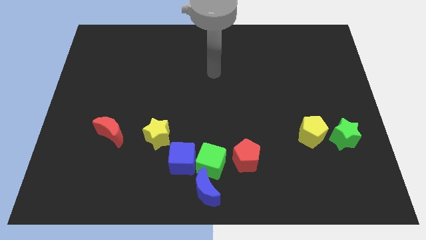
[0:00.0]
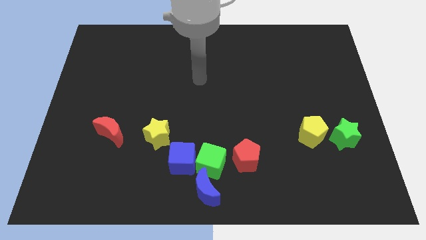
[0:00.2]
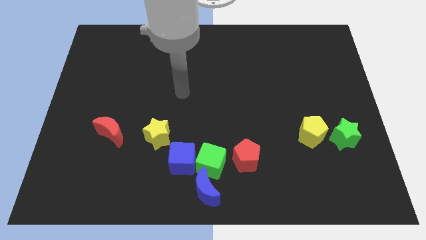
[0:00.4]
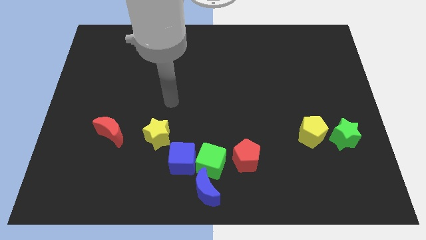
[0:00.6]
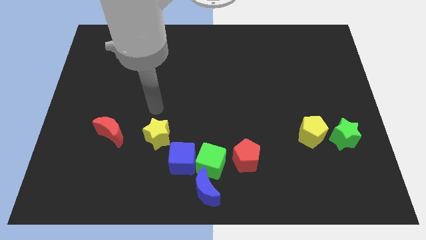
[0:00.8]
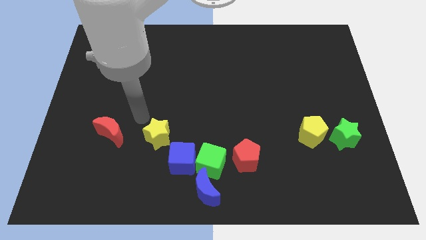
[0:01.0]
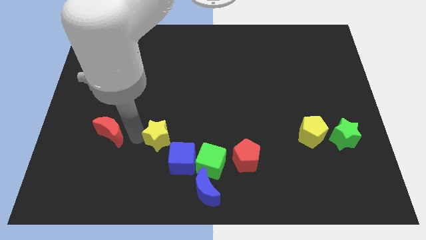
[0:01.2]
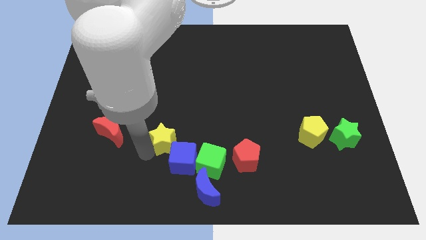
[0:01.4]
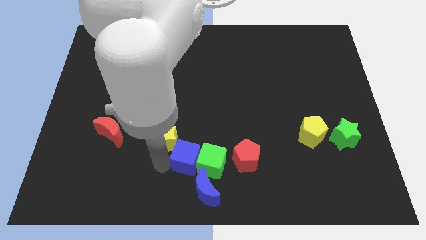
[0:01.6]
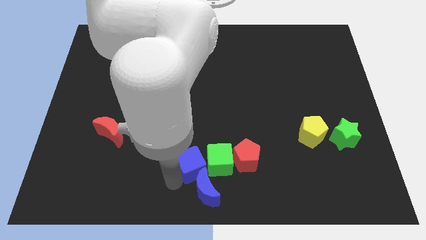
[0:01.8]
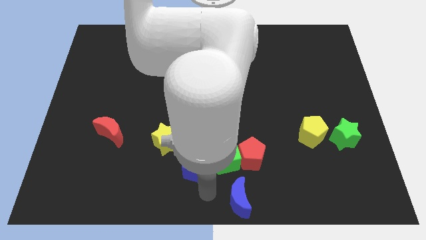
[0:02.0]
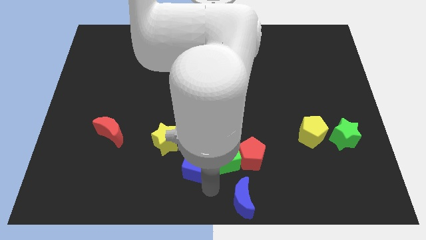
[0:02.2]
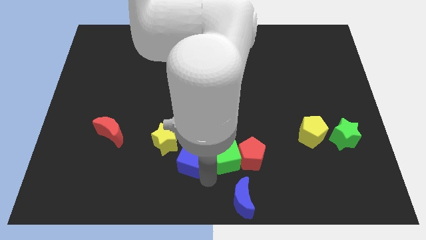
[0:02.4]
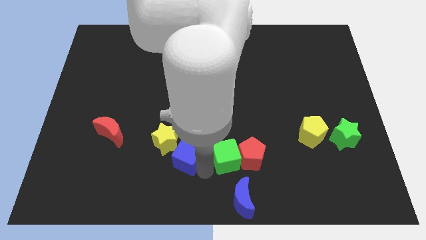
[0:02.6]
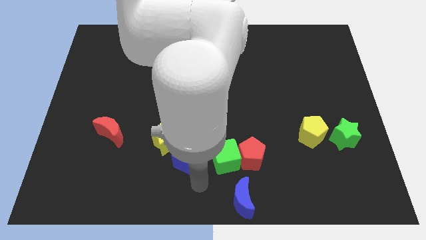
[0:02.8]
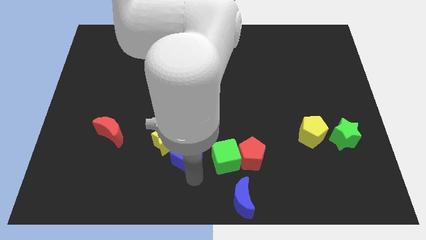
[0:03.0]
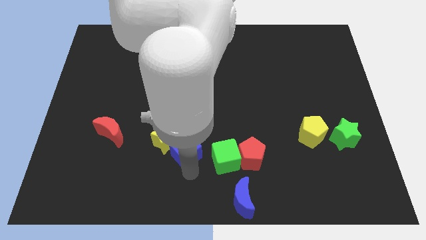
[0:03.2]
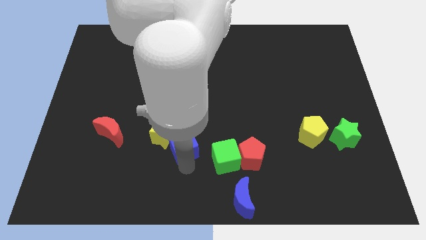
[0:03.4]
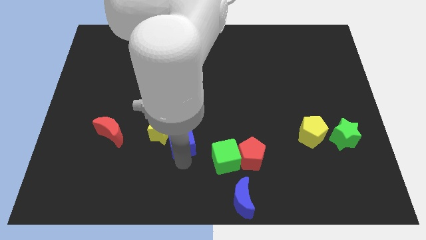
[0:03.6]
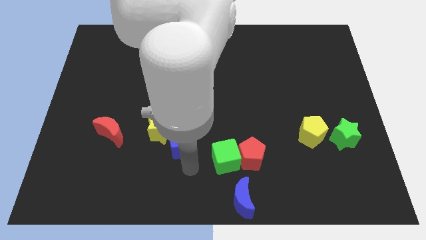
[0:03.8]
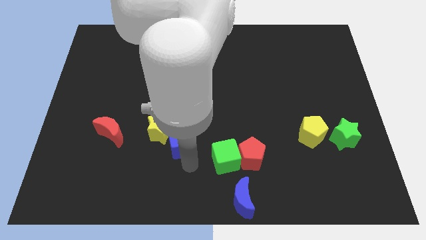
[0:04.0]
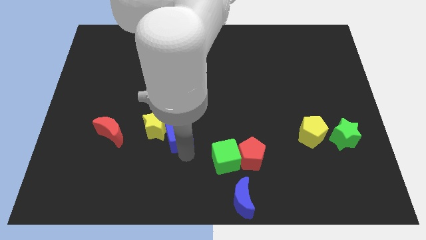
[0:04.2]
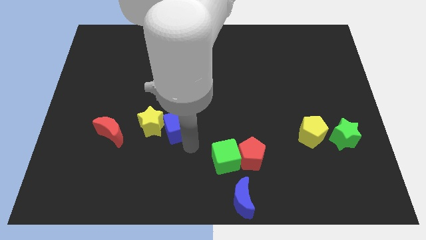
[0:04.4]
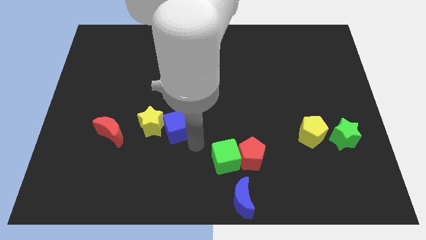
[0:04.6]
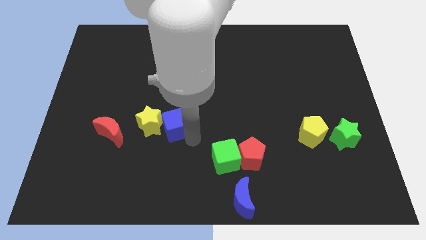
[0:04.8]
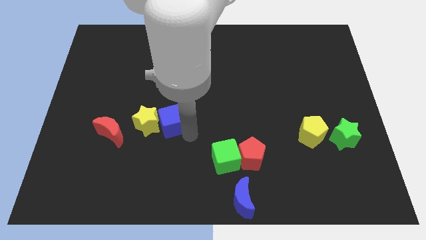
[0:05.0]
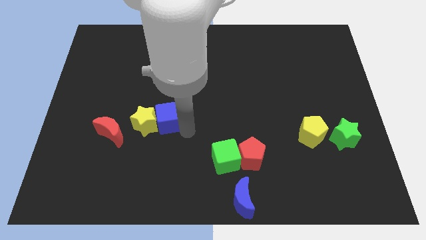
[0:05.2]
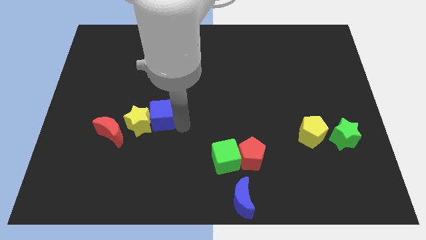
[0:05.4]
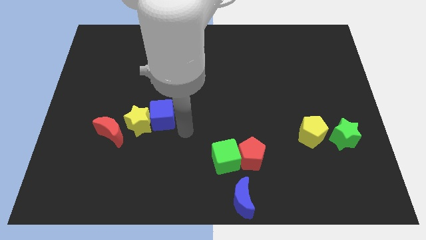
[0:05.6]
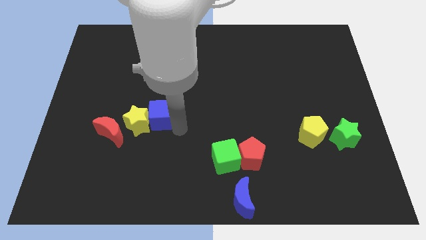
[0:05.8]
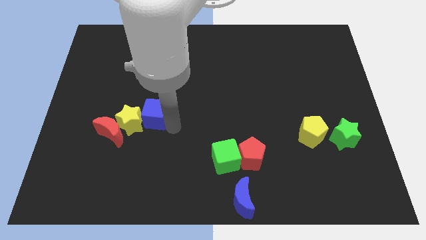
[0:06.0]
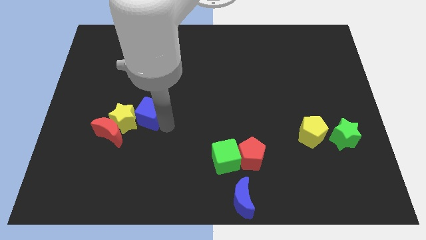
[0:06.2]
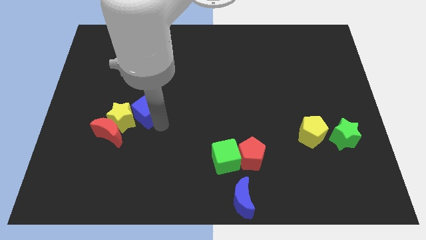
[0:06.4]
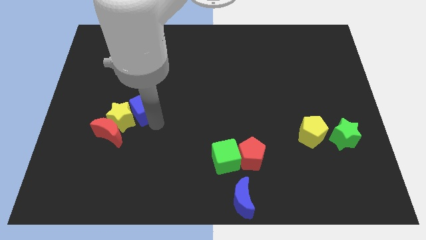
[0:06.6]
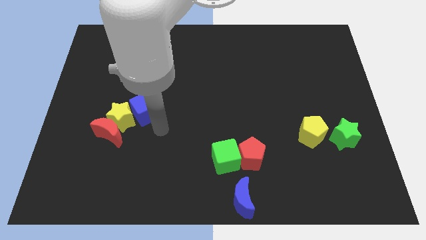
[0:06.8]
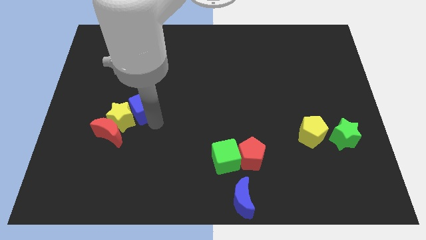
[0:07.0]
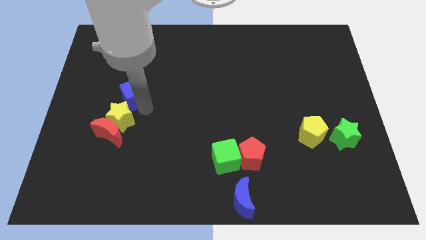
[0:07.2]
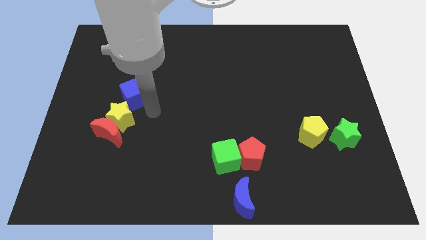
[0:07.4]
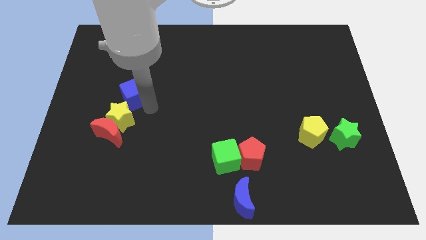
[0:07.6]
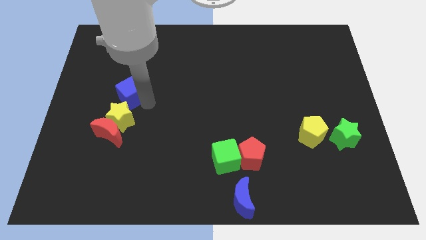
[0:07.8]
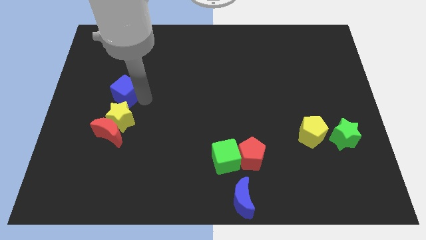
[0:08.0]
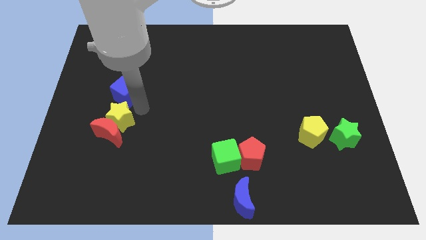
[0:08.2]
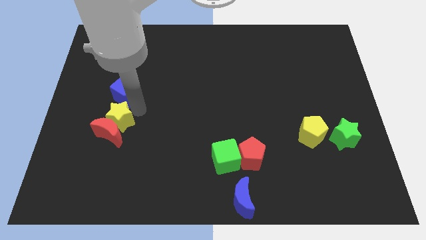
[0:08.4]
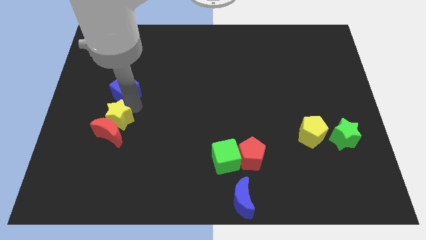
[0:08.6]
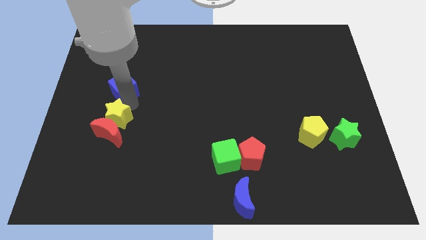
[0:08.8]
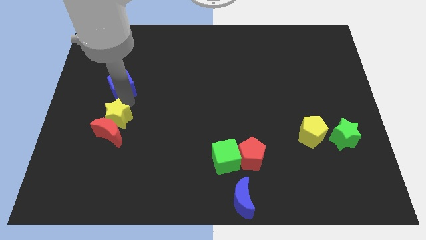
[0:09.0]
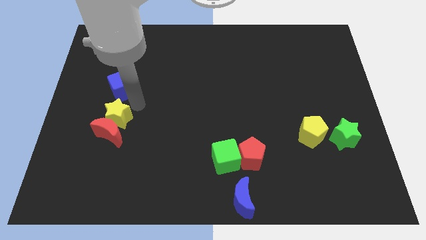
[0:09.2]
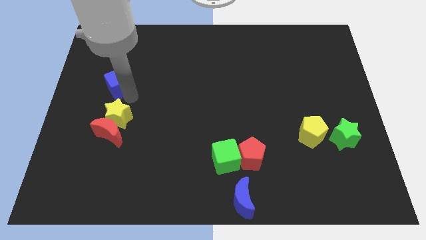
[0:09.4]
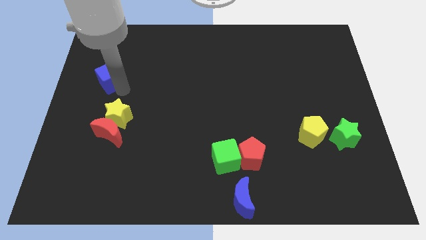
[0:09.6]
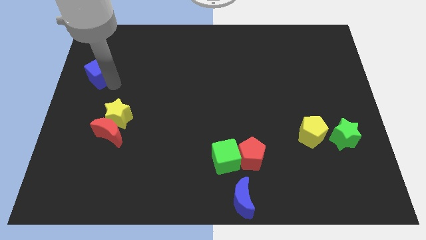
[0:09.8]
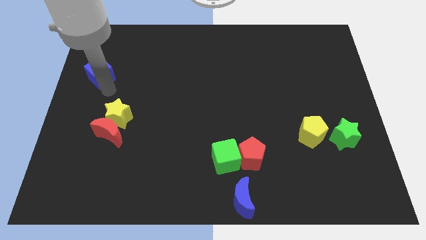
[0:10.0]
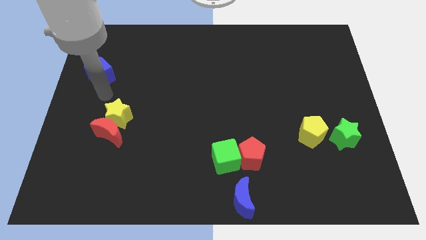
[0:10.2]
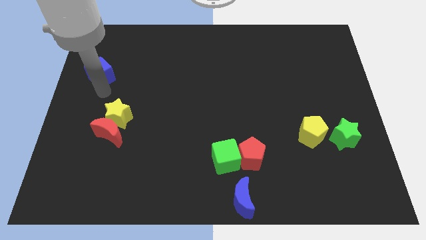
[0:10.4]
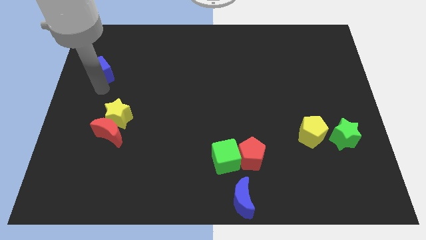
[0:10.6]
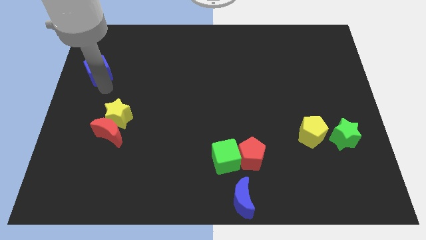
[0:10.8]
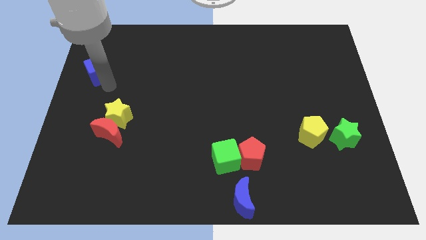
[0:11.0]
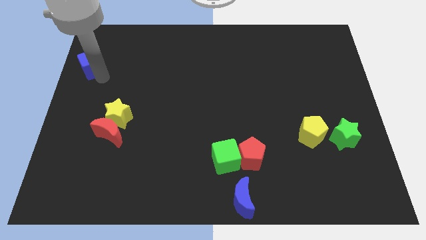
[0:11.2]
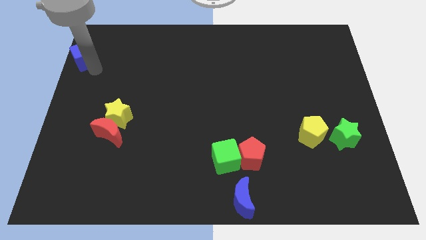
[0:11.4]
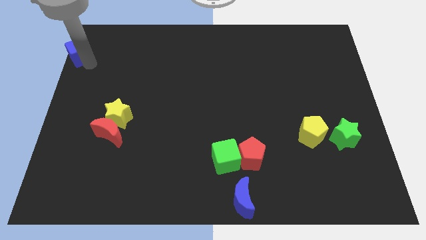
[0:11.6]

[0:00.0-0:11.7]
put the blue cube to the top left of the board
